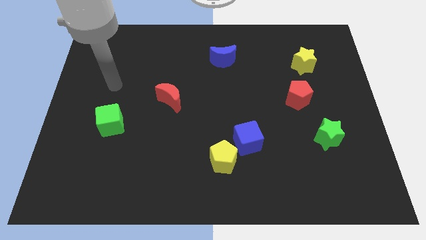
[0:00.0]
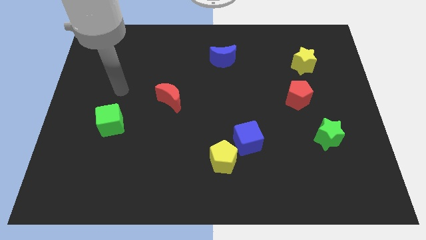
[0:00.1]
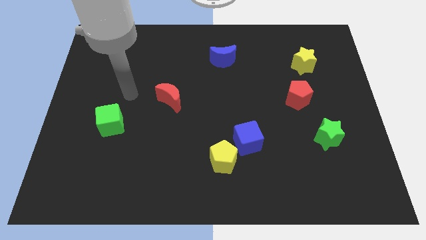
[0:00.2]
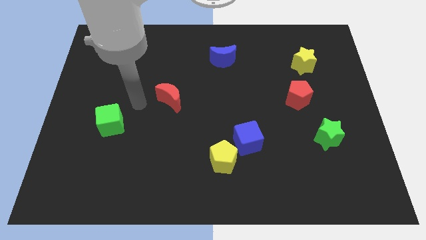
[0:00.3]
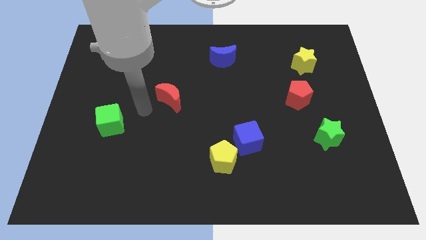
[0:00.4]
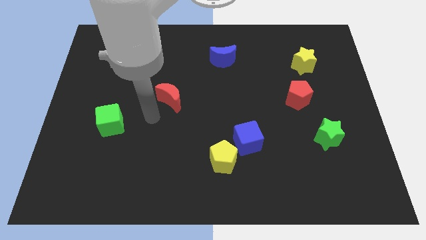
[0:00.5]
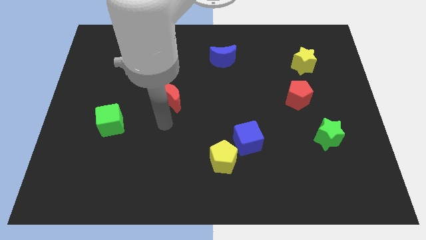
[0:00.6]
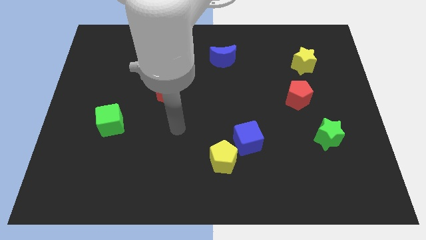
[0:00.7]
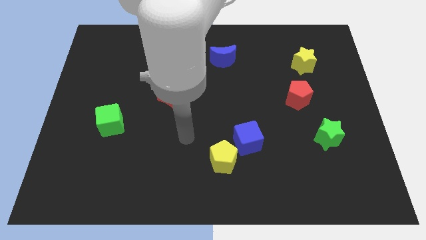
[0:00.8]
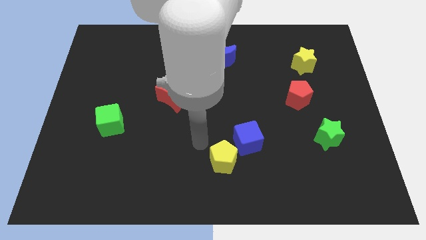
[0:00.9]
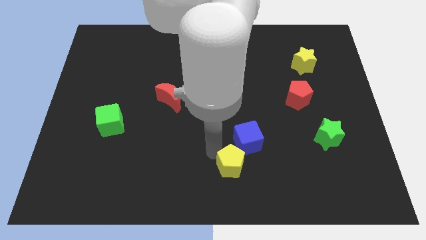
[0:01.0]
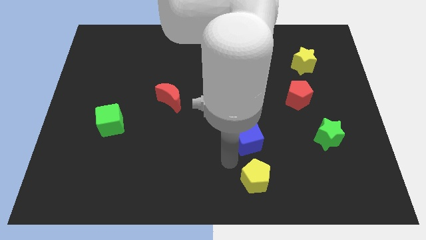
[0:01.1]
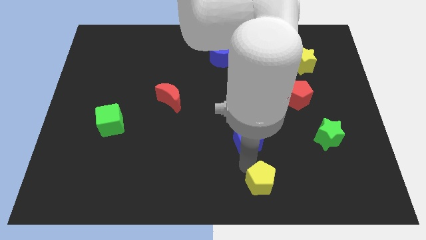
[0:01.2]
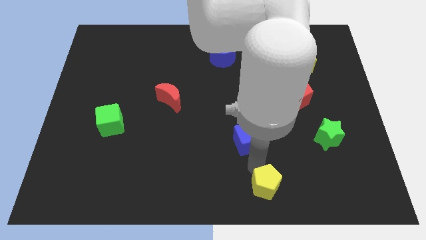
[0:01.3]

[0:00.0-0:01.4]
pull the blue cube apart from the yellow pentagon

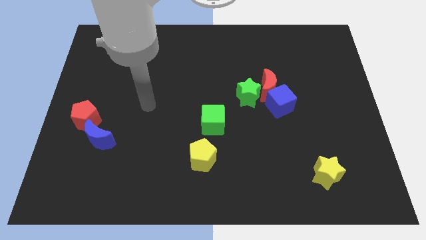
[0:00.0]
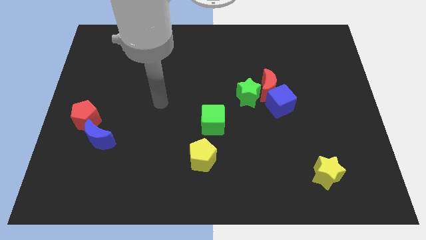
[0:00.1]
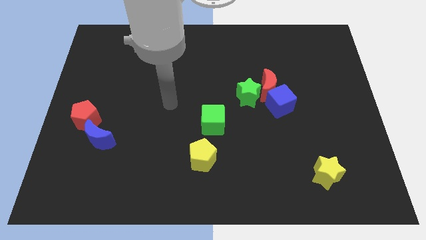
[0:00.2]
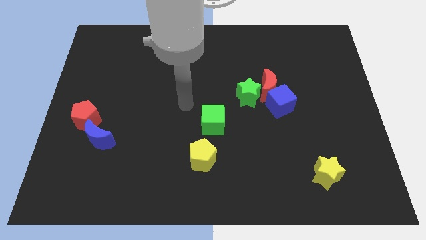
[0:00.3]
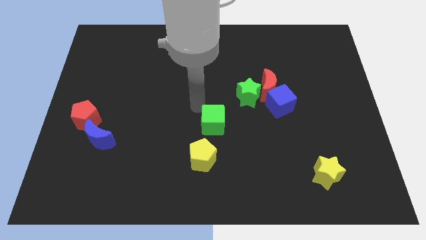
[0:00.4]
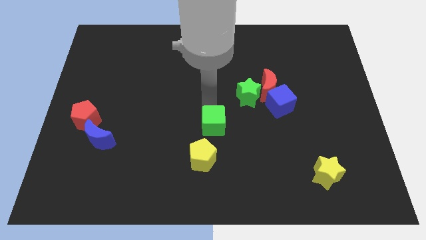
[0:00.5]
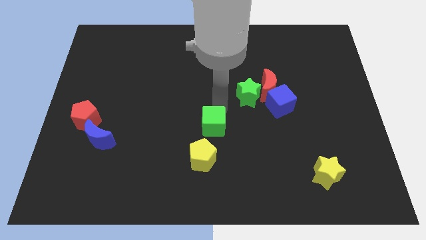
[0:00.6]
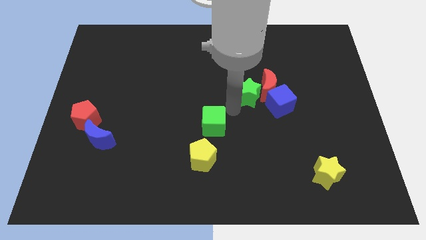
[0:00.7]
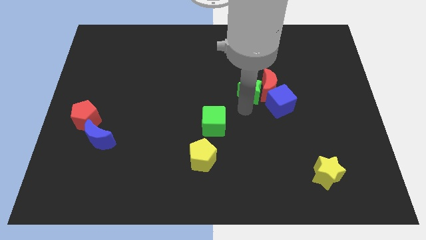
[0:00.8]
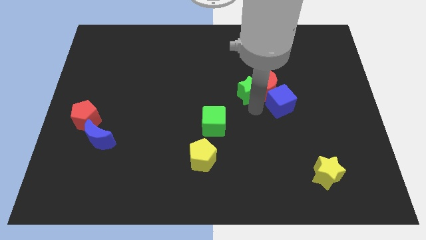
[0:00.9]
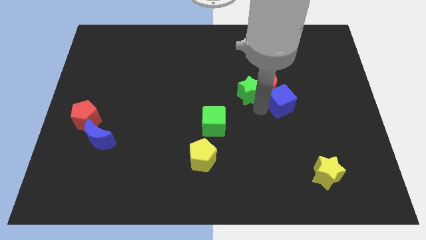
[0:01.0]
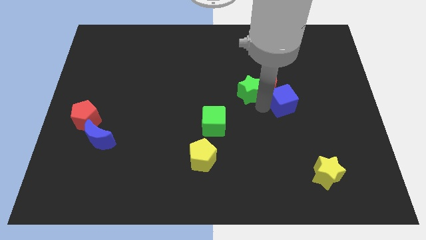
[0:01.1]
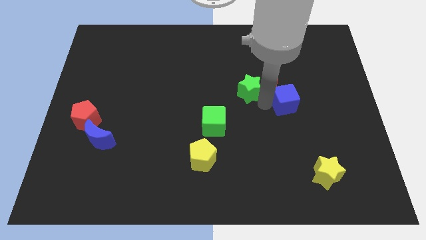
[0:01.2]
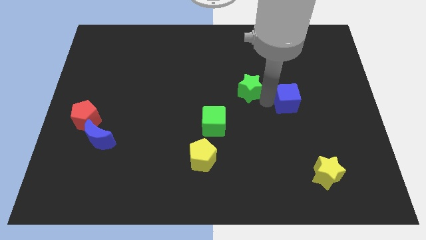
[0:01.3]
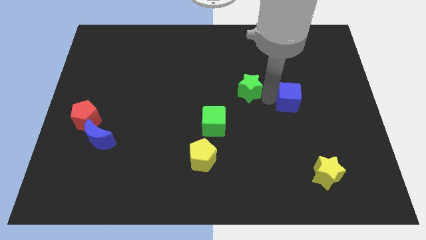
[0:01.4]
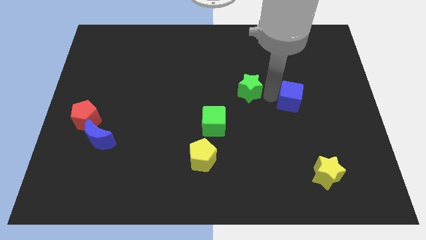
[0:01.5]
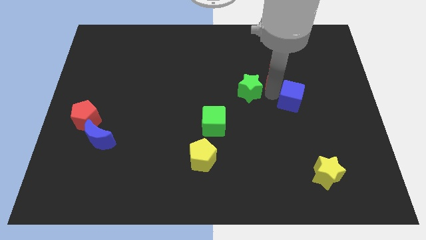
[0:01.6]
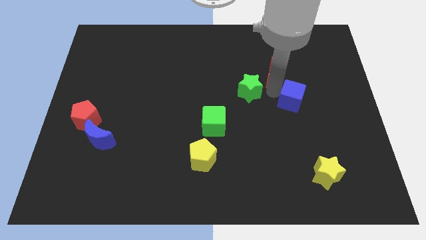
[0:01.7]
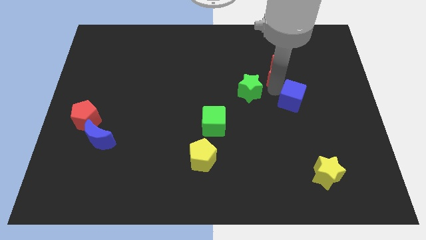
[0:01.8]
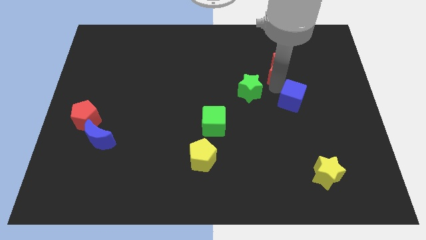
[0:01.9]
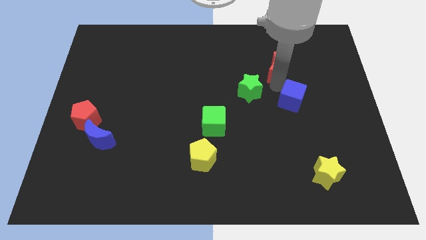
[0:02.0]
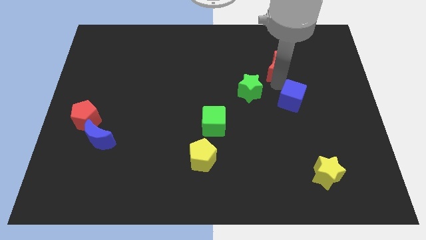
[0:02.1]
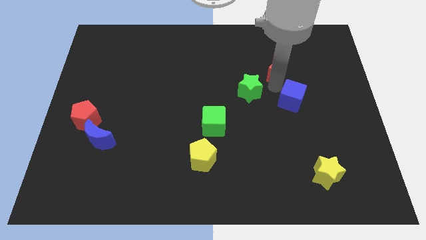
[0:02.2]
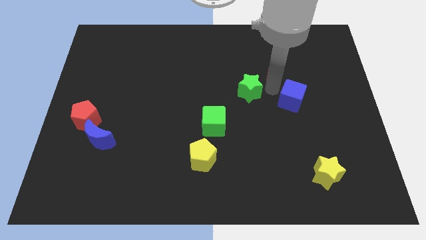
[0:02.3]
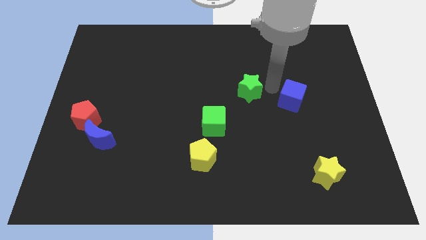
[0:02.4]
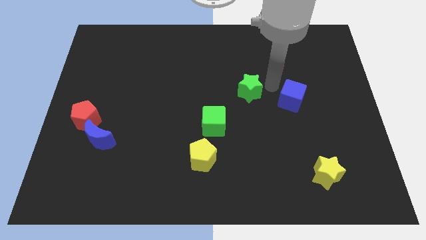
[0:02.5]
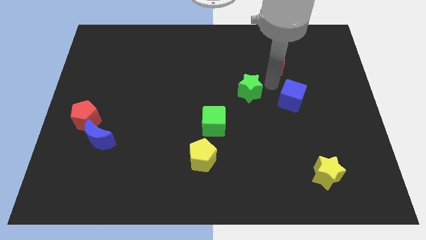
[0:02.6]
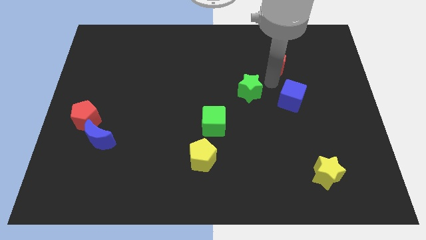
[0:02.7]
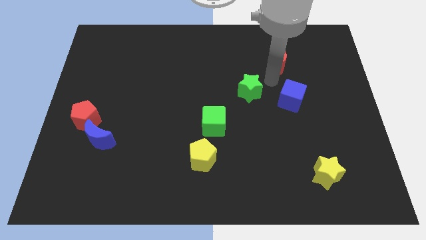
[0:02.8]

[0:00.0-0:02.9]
pull the red moon apart from the blue cube and green star

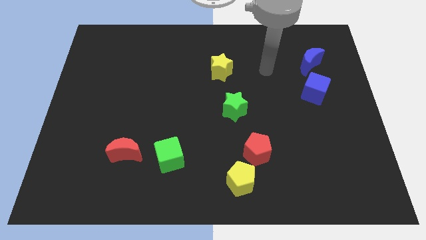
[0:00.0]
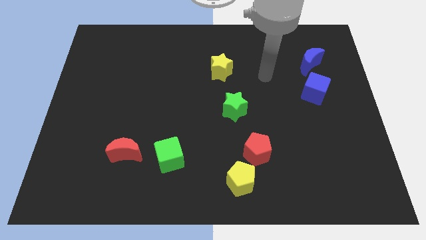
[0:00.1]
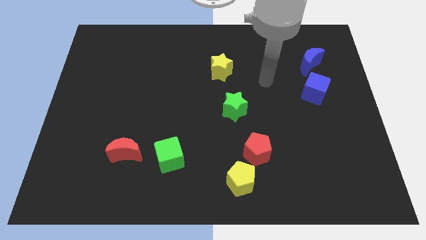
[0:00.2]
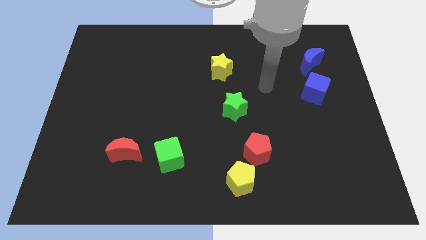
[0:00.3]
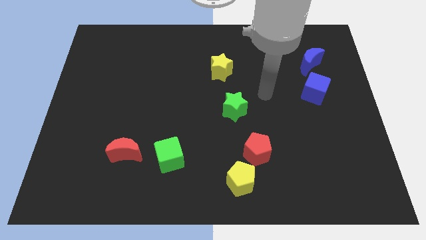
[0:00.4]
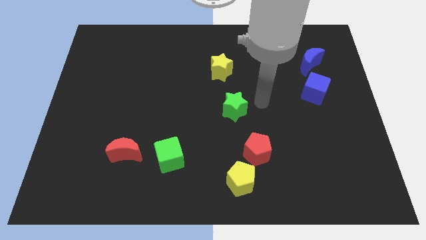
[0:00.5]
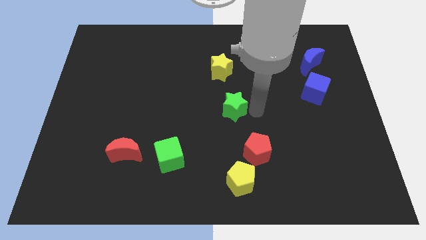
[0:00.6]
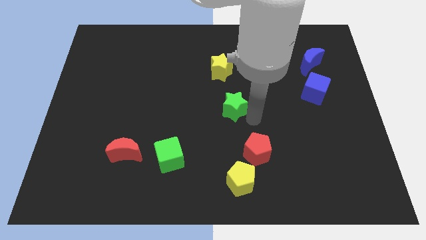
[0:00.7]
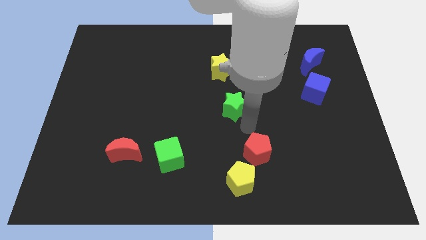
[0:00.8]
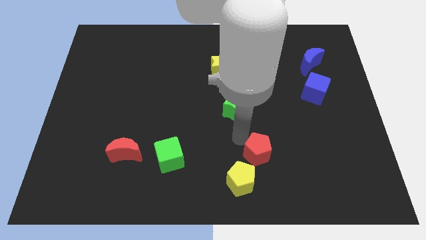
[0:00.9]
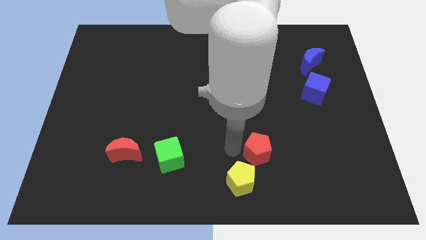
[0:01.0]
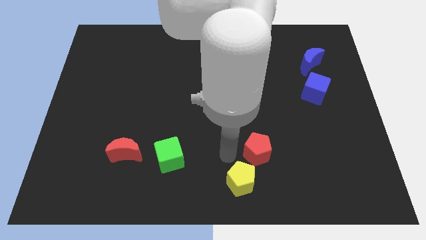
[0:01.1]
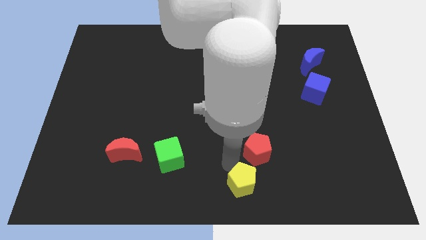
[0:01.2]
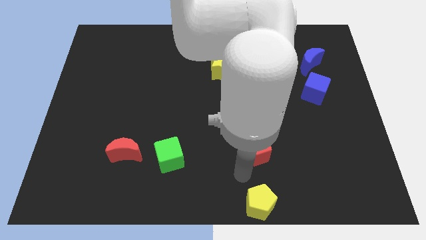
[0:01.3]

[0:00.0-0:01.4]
move the red pentagon away from the yellow pentagon

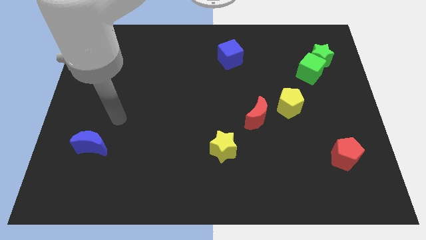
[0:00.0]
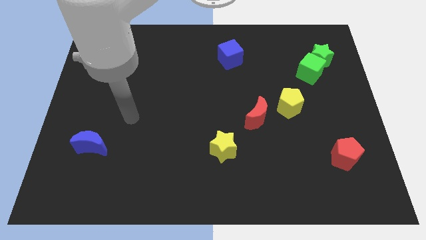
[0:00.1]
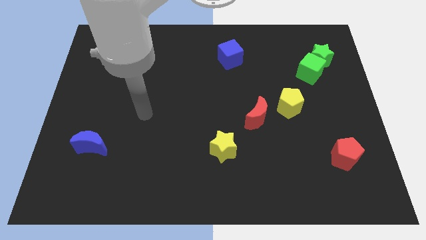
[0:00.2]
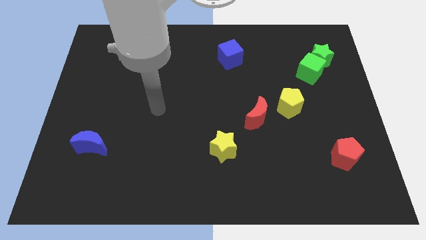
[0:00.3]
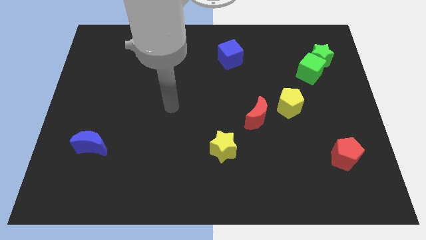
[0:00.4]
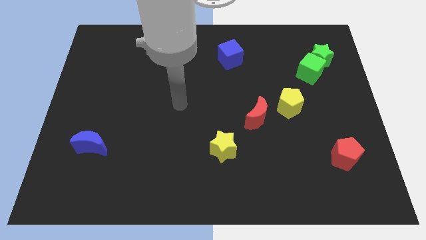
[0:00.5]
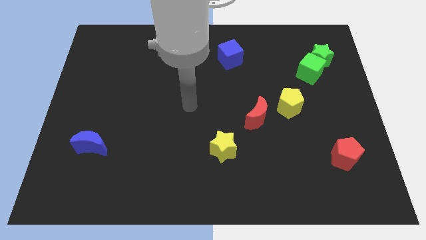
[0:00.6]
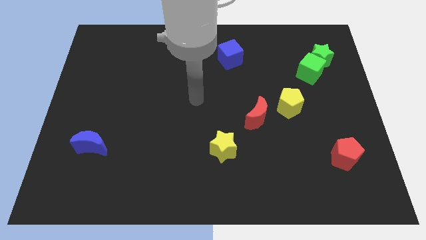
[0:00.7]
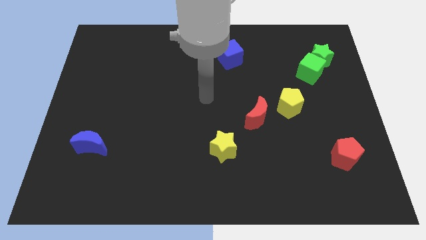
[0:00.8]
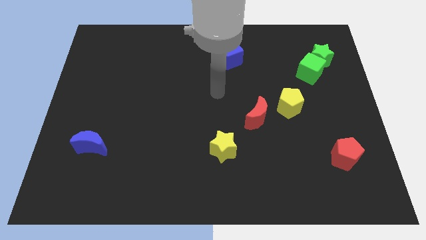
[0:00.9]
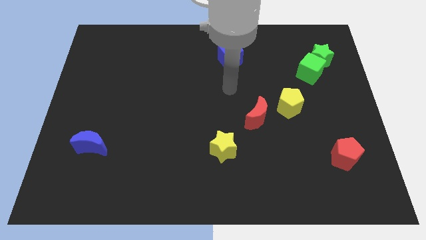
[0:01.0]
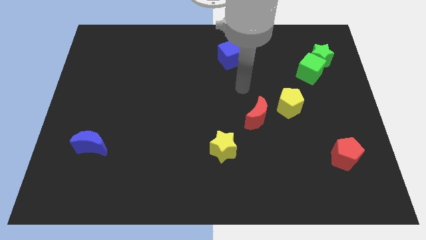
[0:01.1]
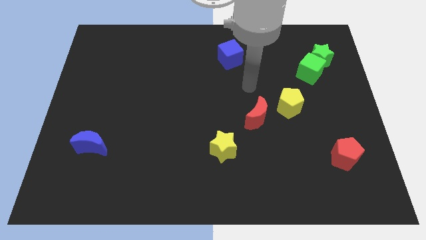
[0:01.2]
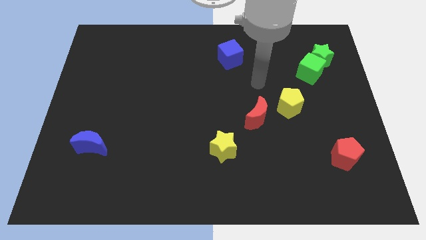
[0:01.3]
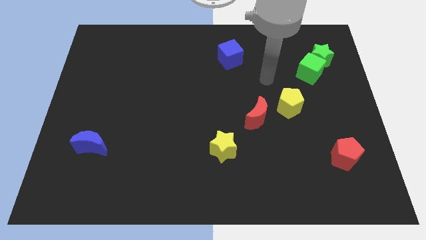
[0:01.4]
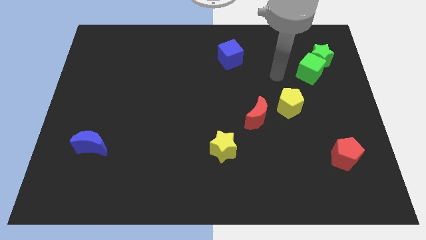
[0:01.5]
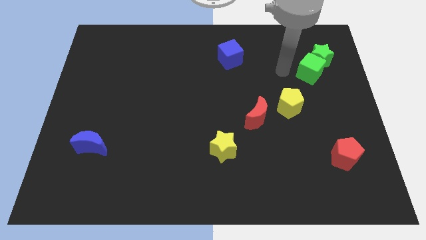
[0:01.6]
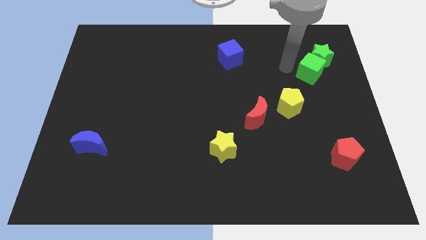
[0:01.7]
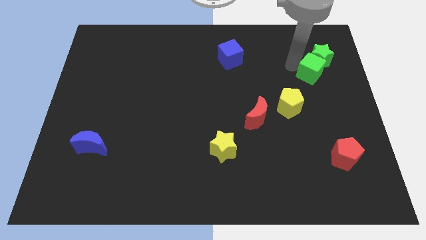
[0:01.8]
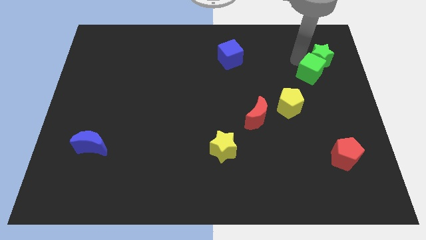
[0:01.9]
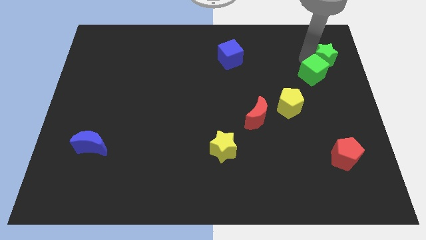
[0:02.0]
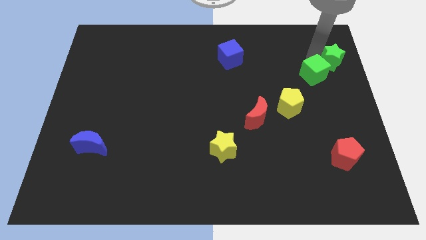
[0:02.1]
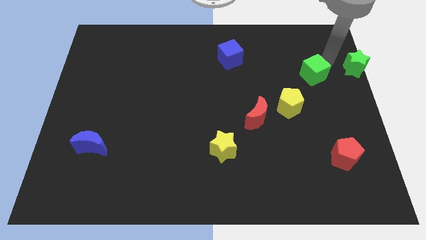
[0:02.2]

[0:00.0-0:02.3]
move the green cube away from the green star

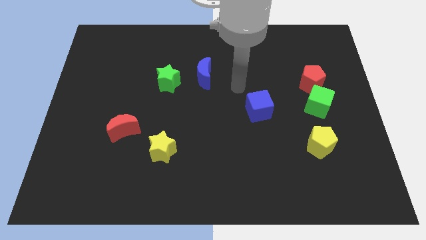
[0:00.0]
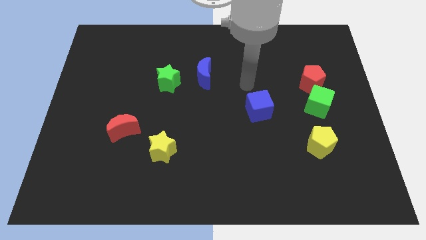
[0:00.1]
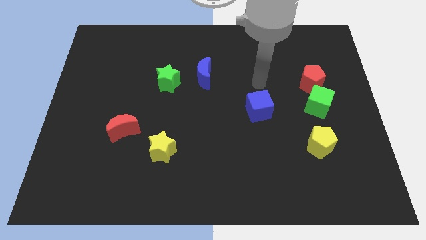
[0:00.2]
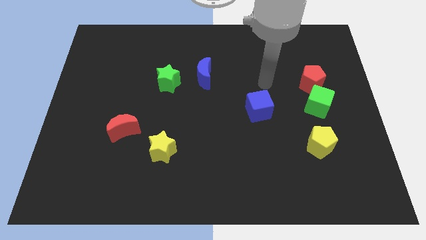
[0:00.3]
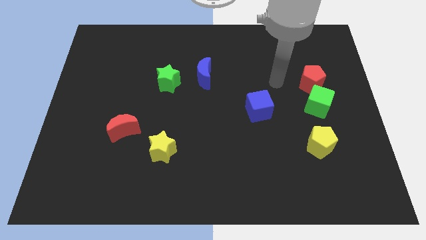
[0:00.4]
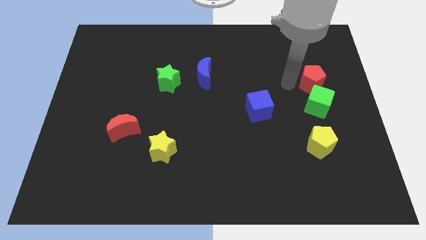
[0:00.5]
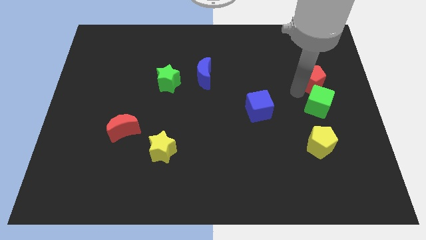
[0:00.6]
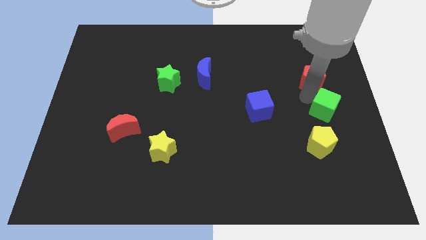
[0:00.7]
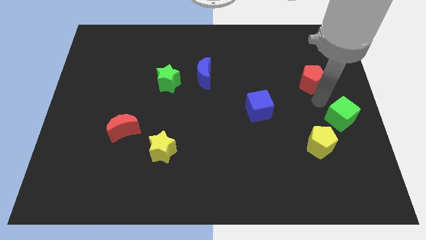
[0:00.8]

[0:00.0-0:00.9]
separate the red pentagon from the green cube

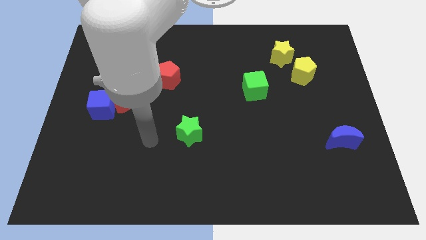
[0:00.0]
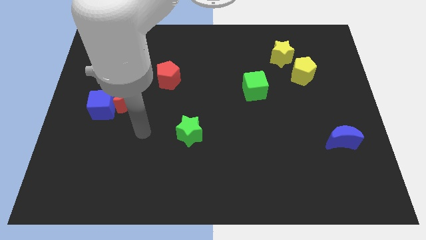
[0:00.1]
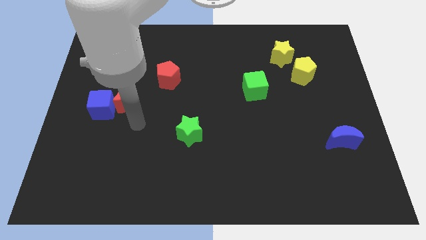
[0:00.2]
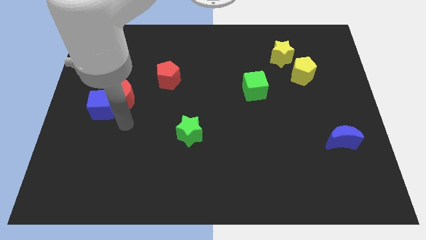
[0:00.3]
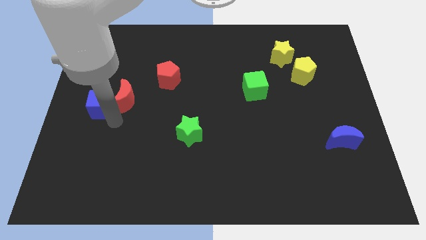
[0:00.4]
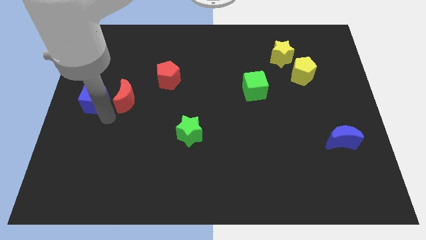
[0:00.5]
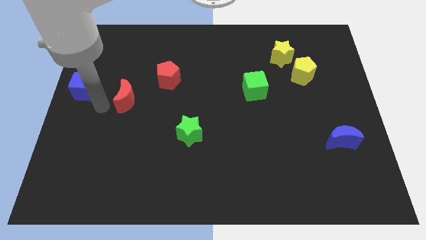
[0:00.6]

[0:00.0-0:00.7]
separate the red moon from the blue cube
